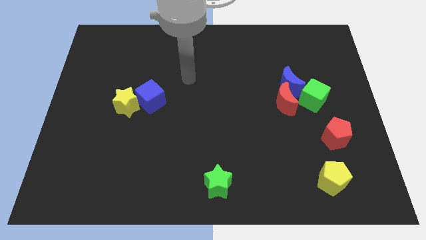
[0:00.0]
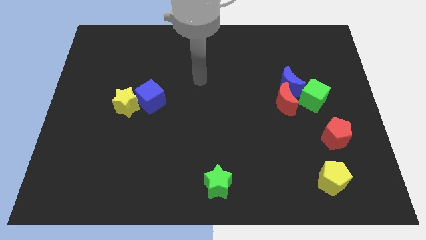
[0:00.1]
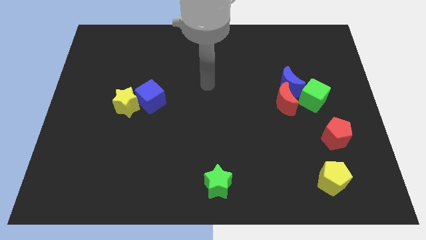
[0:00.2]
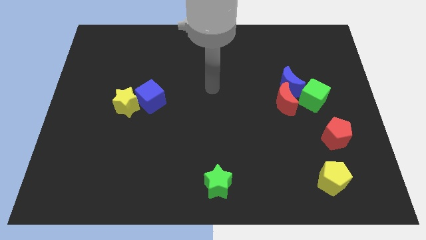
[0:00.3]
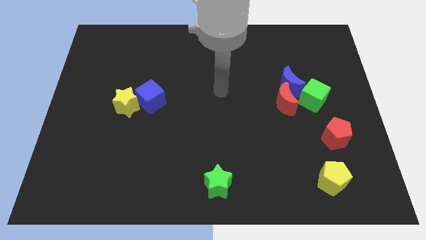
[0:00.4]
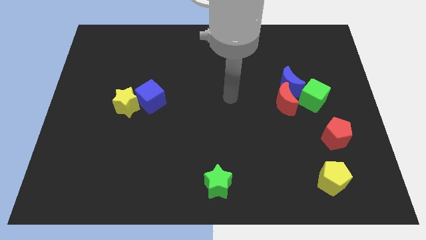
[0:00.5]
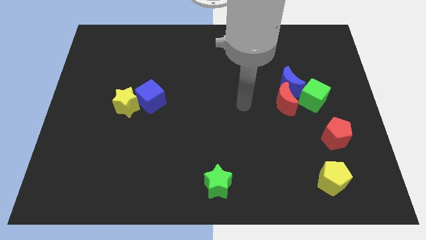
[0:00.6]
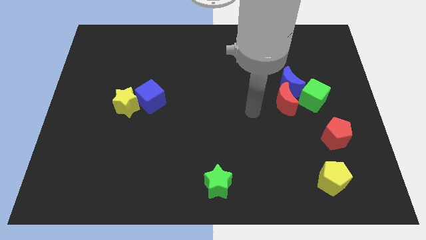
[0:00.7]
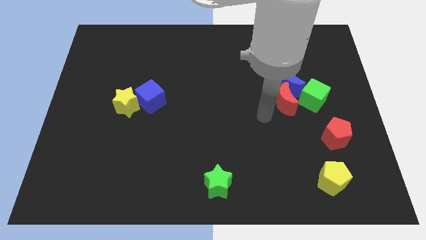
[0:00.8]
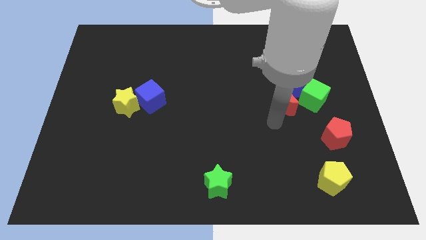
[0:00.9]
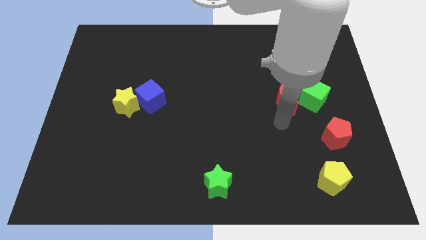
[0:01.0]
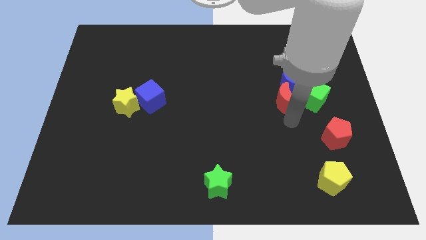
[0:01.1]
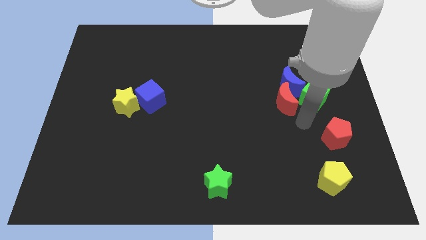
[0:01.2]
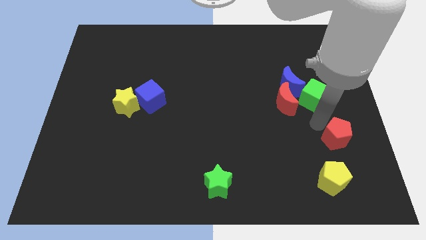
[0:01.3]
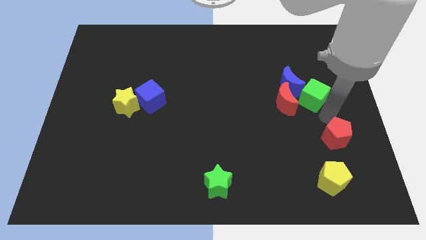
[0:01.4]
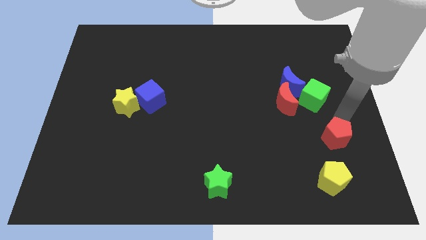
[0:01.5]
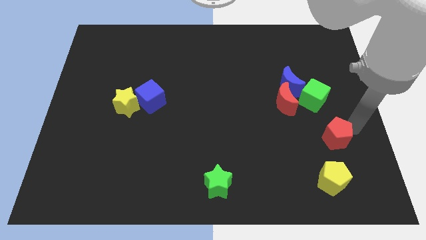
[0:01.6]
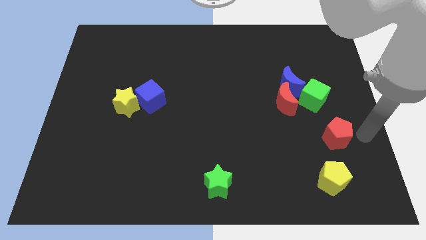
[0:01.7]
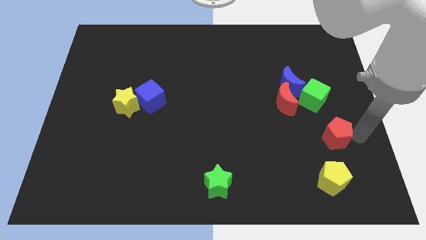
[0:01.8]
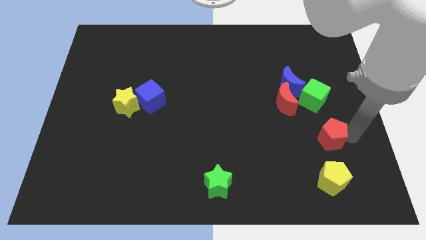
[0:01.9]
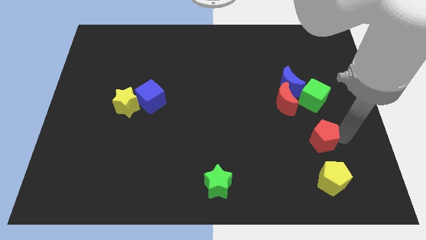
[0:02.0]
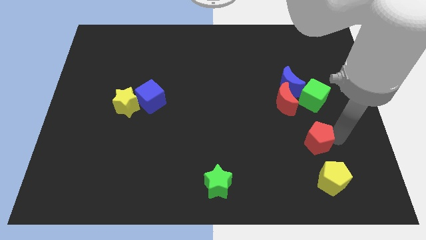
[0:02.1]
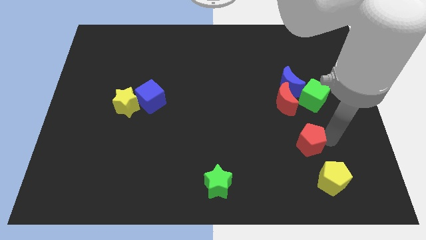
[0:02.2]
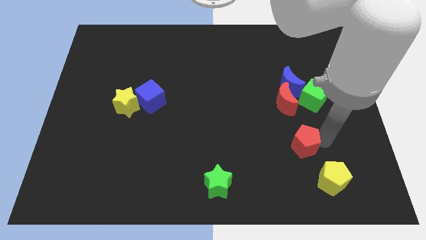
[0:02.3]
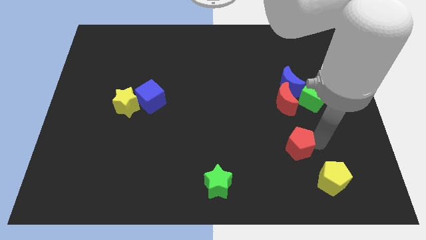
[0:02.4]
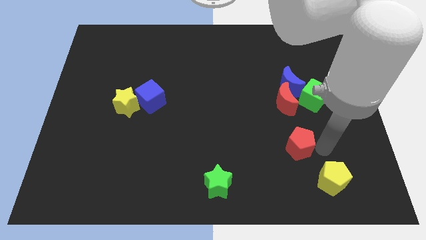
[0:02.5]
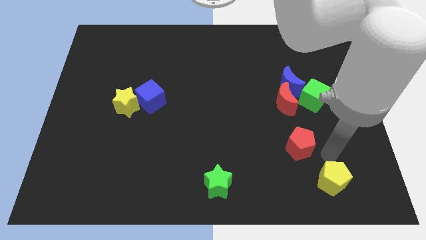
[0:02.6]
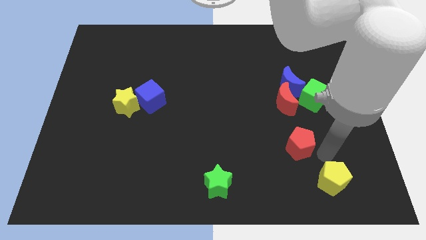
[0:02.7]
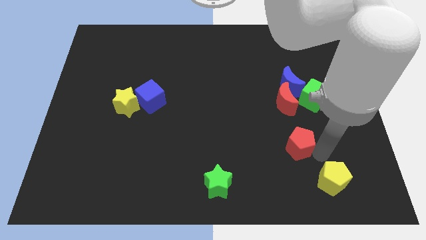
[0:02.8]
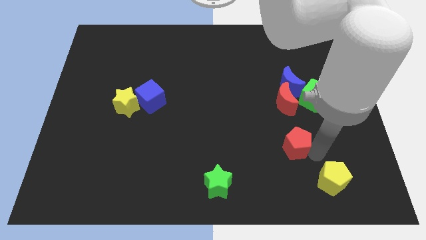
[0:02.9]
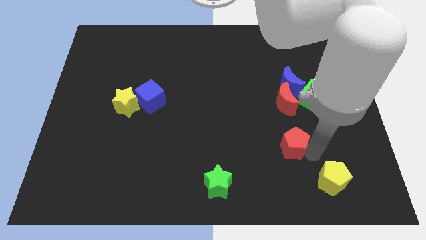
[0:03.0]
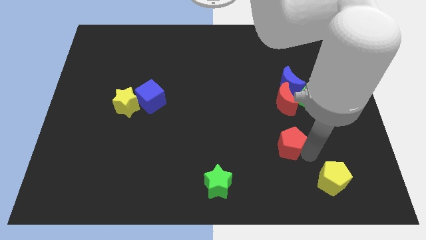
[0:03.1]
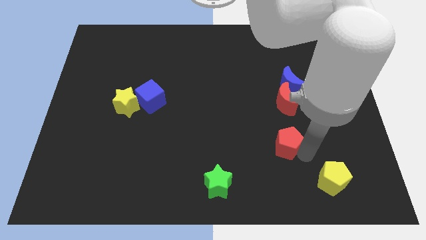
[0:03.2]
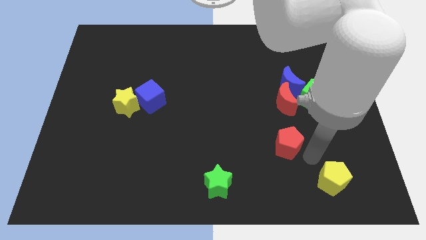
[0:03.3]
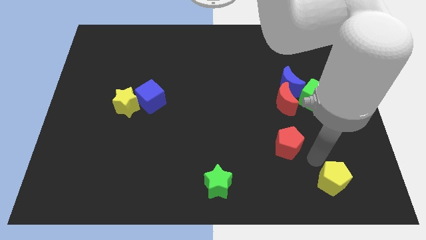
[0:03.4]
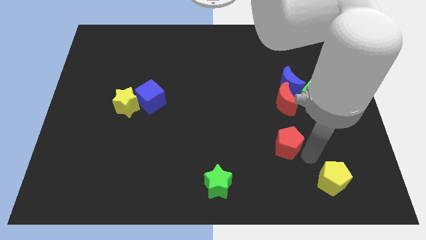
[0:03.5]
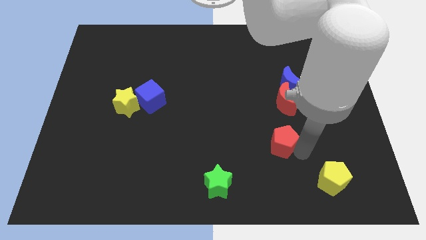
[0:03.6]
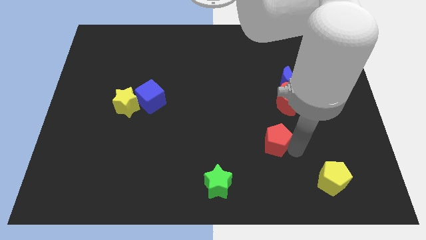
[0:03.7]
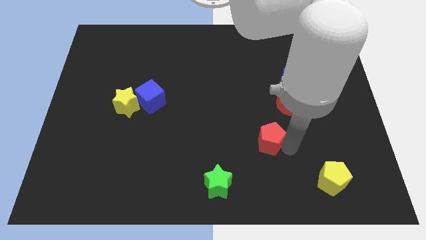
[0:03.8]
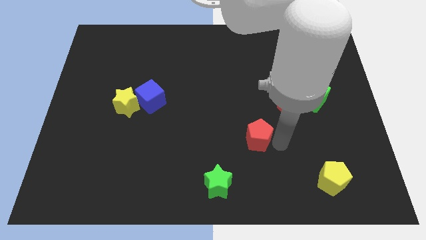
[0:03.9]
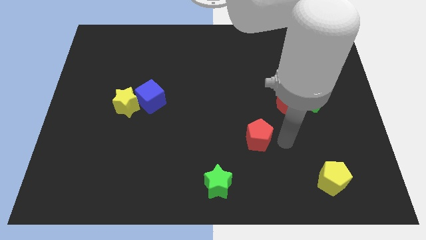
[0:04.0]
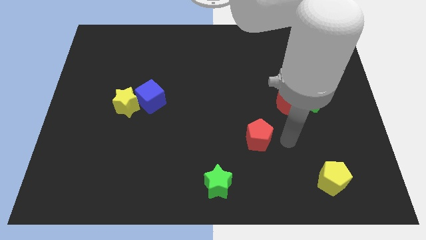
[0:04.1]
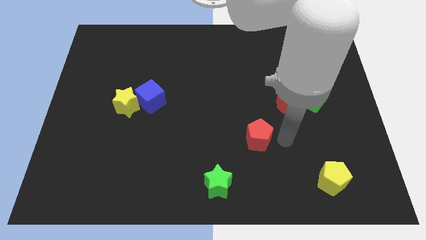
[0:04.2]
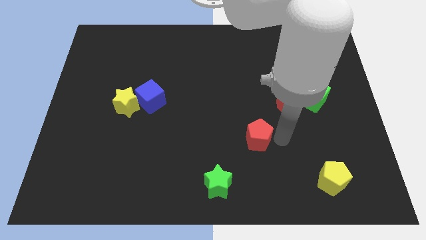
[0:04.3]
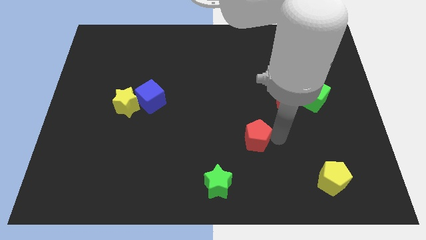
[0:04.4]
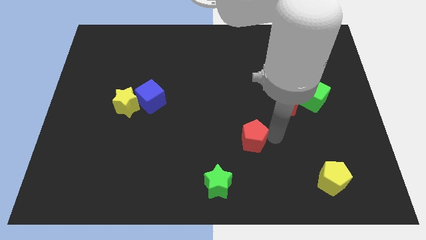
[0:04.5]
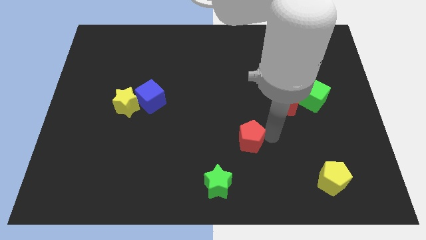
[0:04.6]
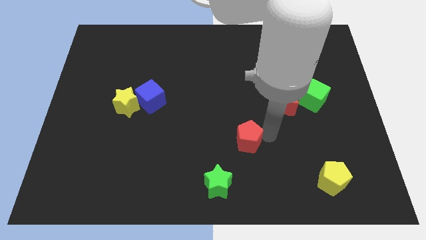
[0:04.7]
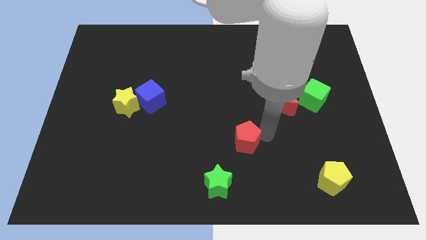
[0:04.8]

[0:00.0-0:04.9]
push the red pentagon left

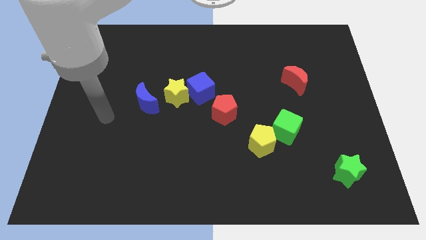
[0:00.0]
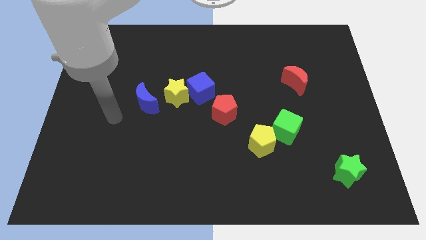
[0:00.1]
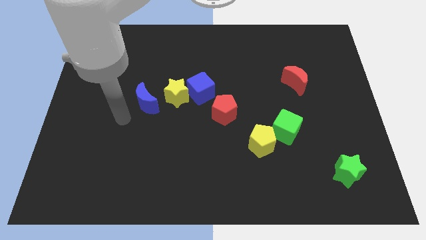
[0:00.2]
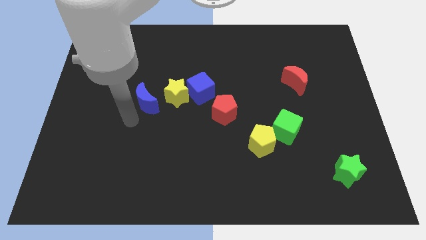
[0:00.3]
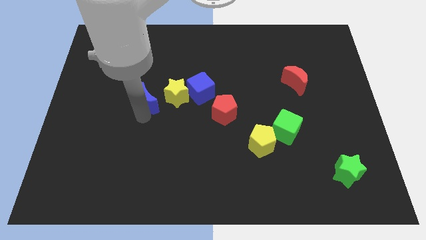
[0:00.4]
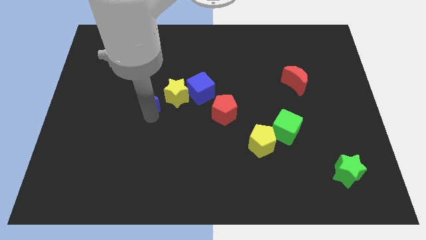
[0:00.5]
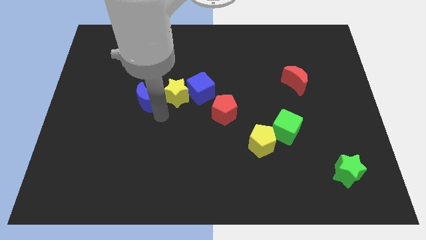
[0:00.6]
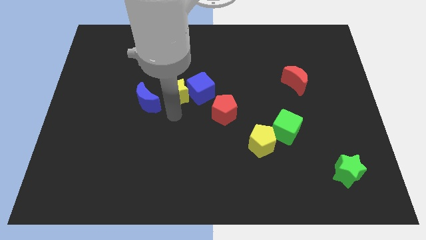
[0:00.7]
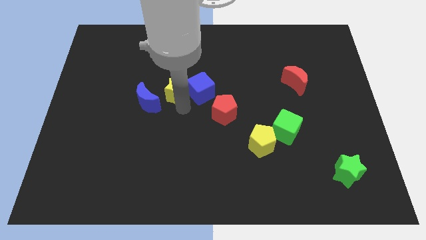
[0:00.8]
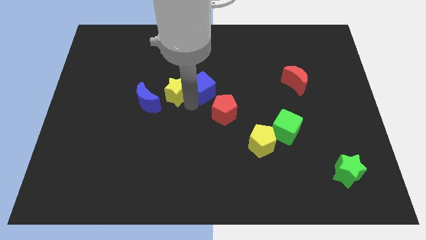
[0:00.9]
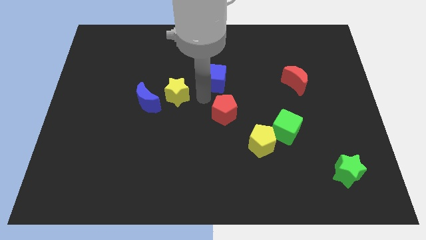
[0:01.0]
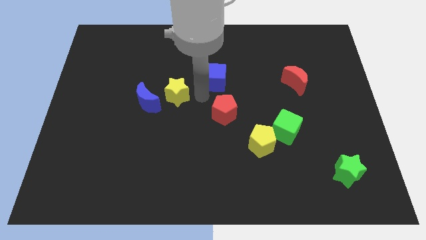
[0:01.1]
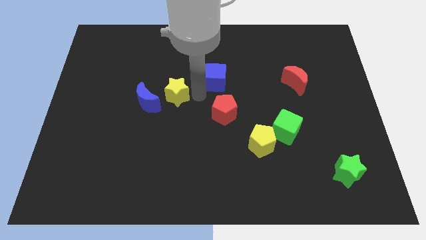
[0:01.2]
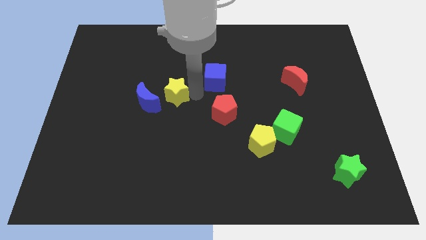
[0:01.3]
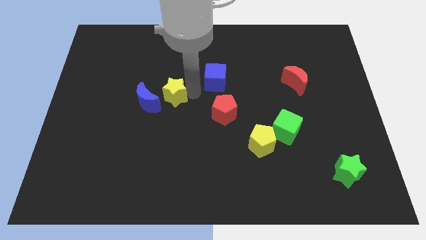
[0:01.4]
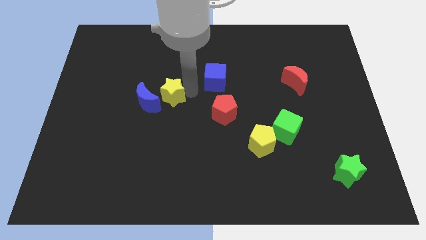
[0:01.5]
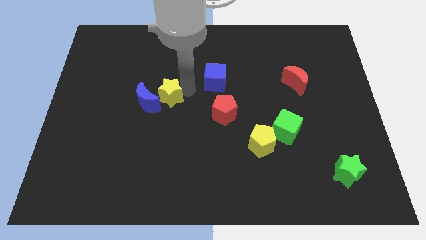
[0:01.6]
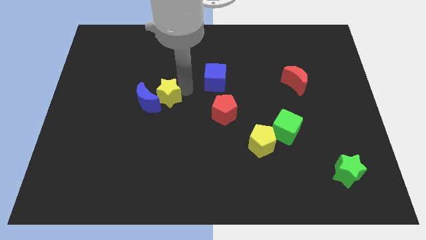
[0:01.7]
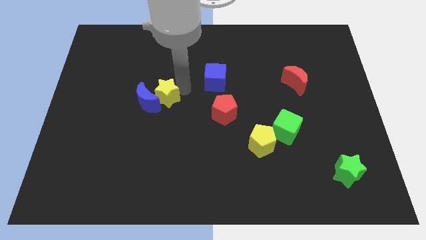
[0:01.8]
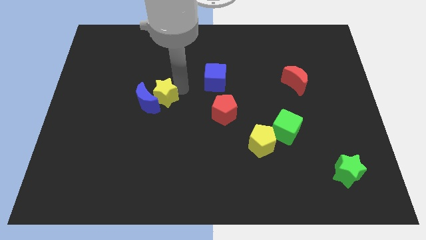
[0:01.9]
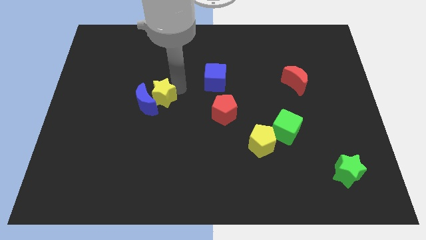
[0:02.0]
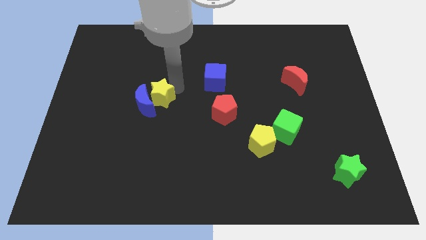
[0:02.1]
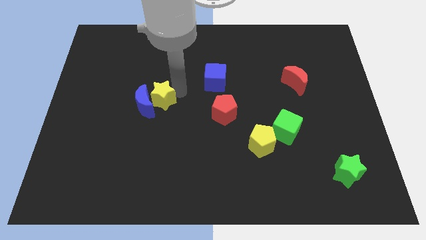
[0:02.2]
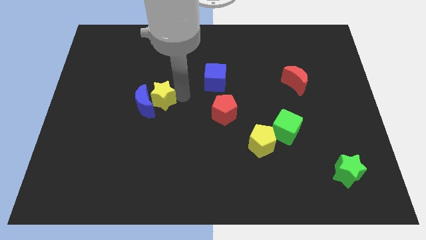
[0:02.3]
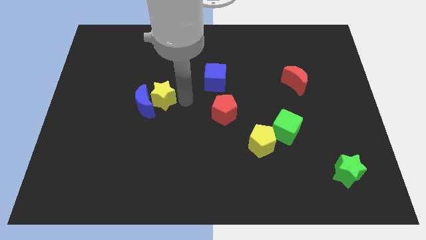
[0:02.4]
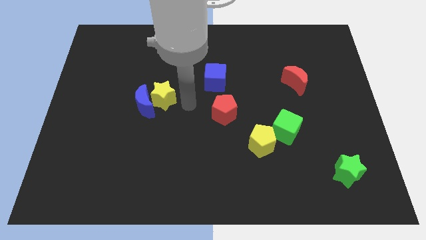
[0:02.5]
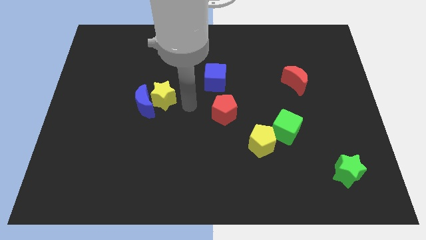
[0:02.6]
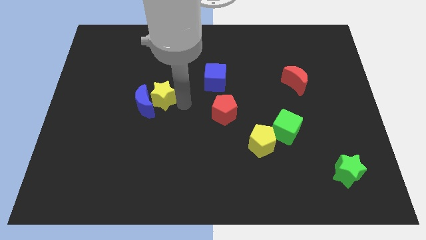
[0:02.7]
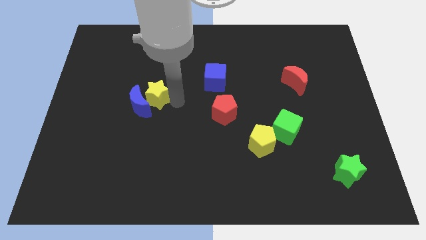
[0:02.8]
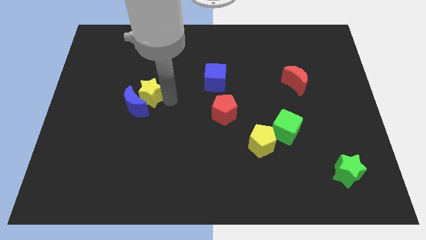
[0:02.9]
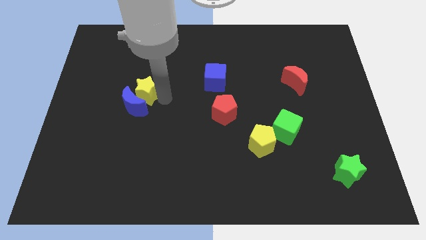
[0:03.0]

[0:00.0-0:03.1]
slightly move the yellow star to the left

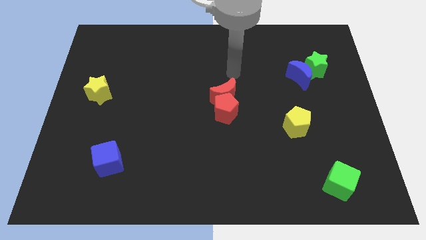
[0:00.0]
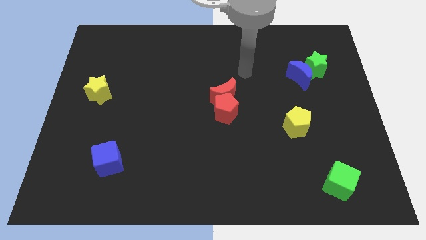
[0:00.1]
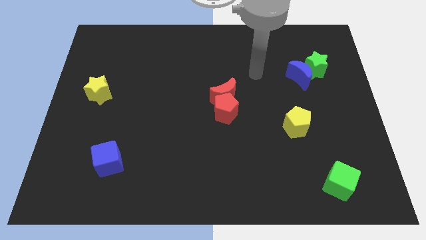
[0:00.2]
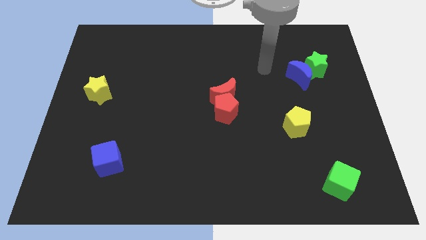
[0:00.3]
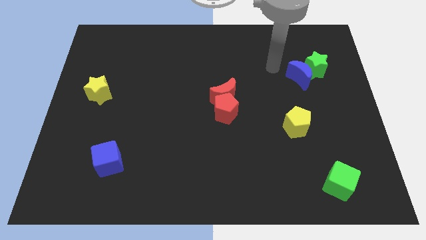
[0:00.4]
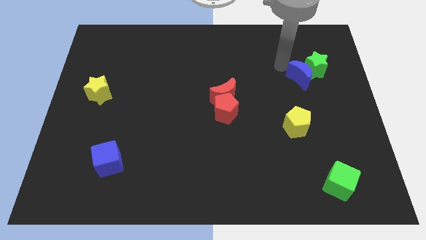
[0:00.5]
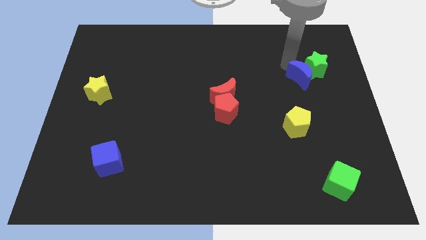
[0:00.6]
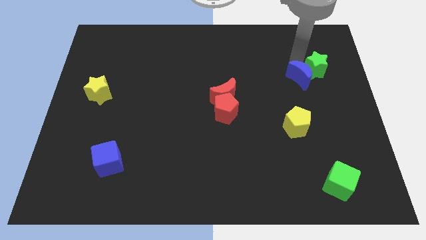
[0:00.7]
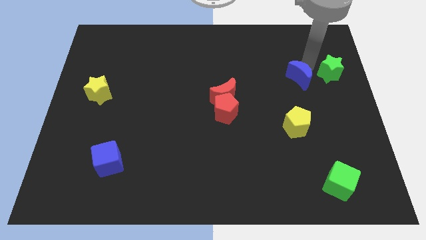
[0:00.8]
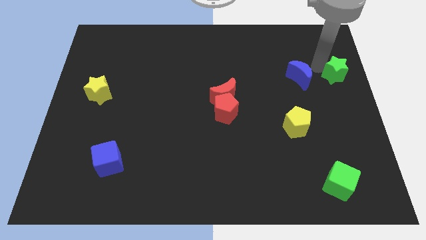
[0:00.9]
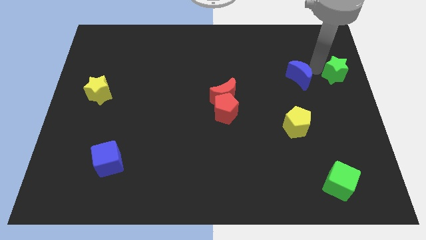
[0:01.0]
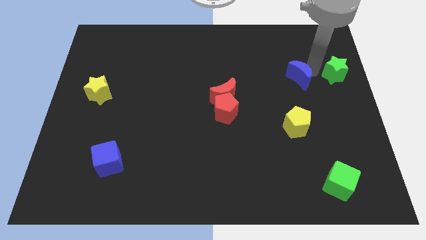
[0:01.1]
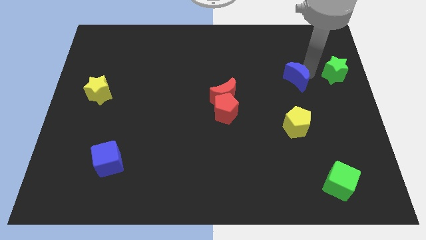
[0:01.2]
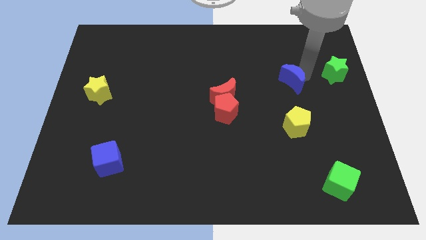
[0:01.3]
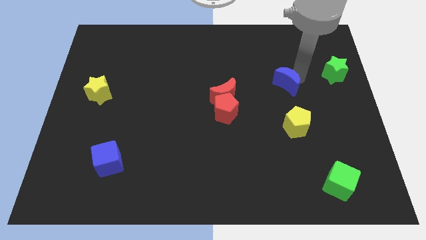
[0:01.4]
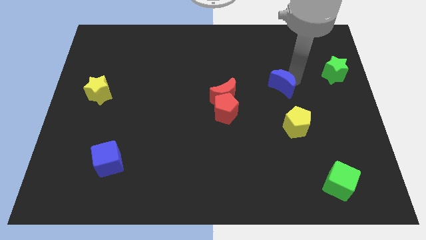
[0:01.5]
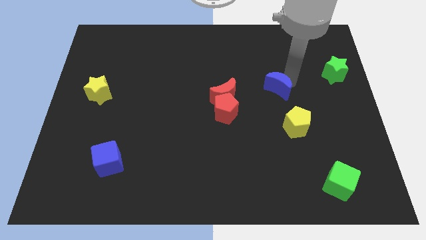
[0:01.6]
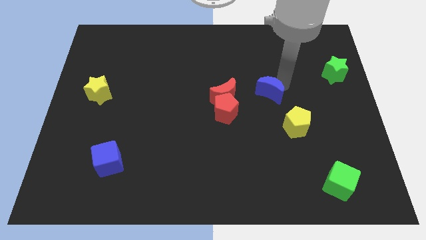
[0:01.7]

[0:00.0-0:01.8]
move the blue moon a bit down and then to the left
